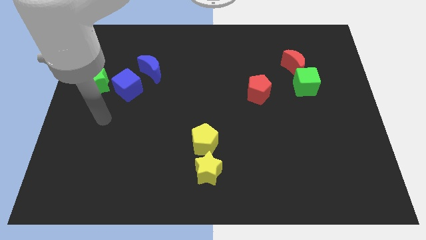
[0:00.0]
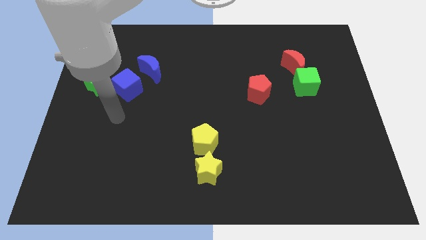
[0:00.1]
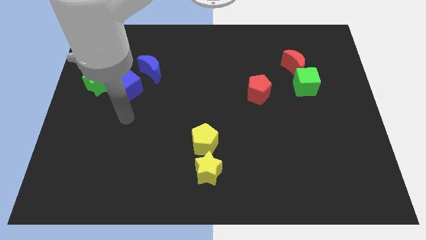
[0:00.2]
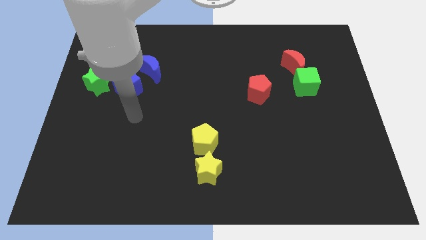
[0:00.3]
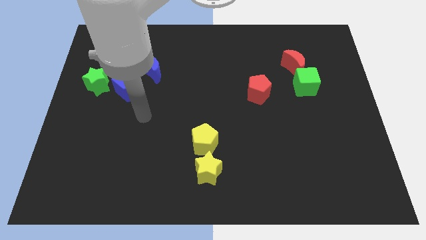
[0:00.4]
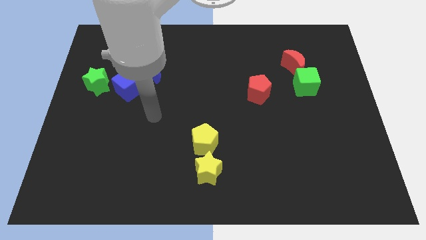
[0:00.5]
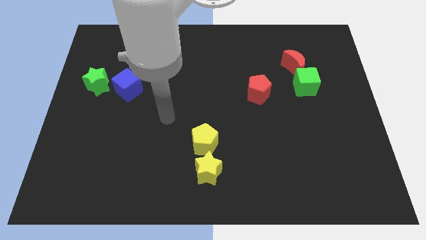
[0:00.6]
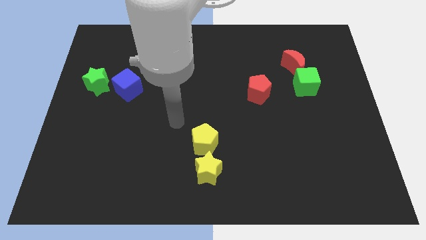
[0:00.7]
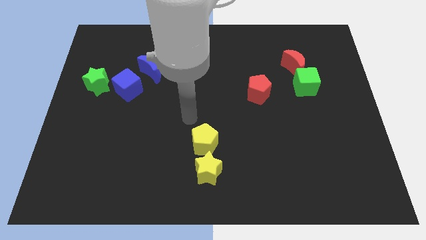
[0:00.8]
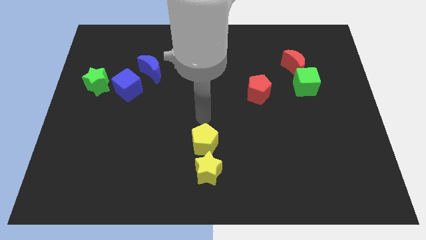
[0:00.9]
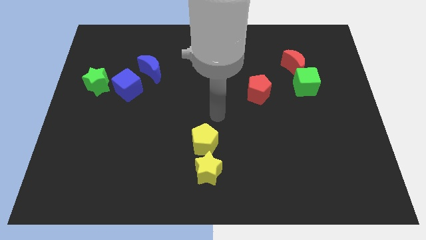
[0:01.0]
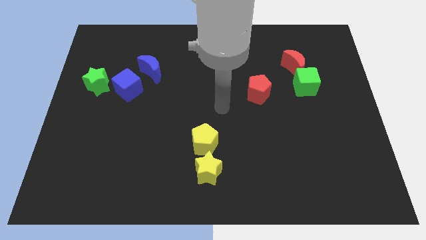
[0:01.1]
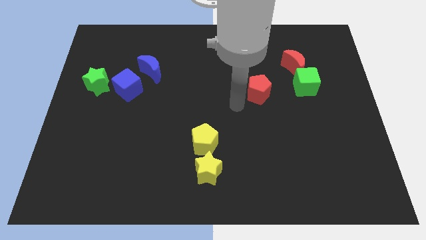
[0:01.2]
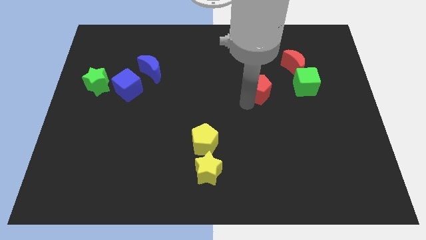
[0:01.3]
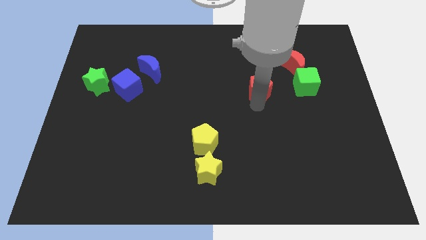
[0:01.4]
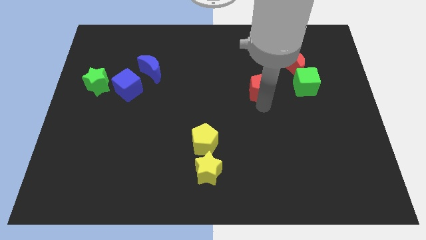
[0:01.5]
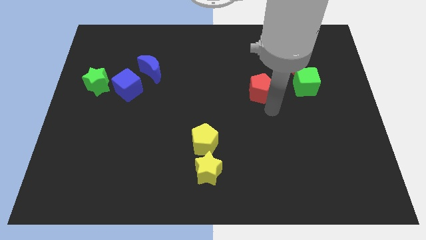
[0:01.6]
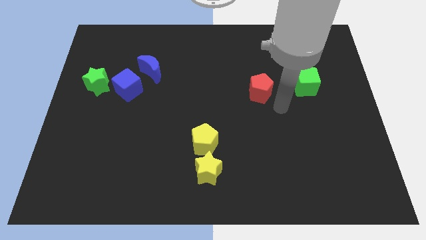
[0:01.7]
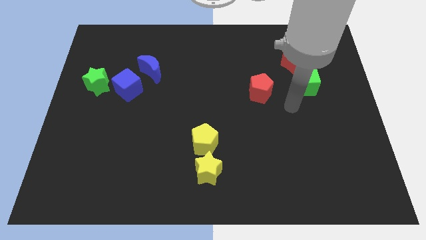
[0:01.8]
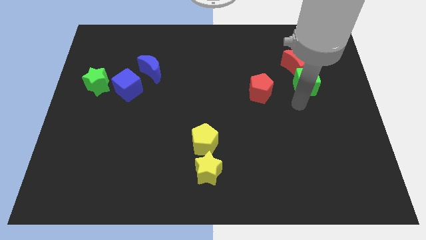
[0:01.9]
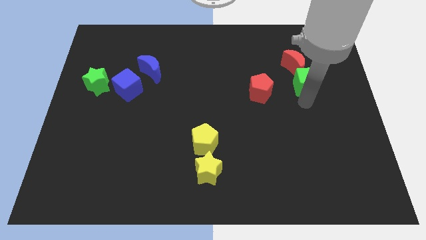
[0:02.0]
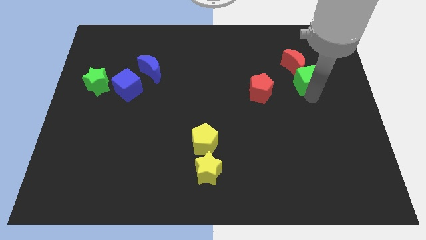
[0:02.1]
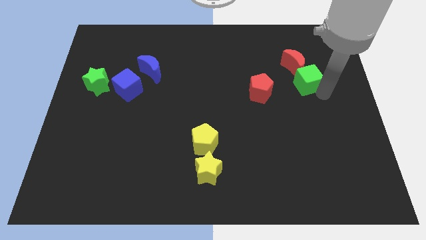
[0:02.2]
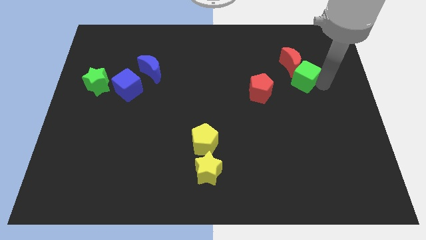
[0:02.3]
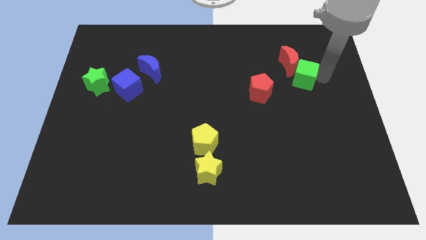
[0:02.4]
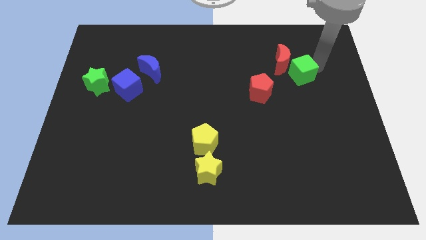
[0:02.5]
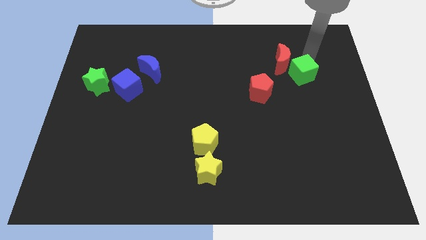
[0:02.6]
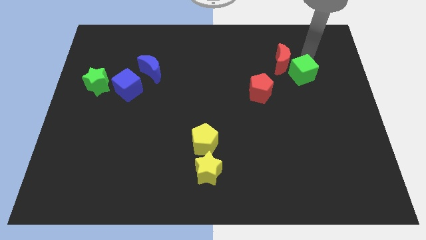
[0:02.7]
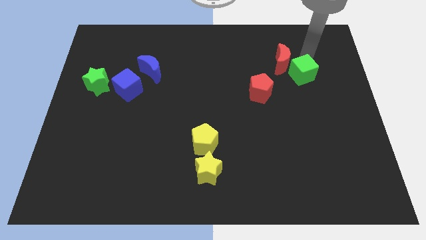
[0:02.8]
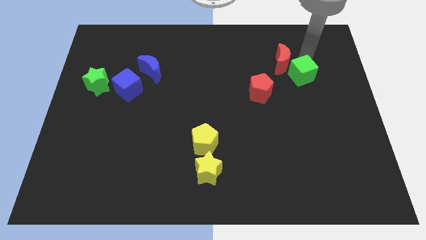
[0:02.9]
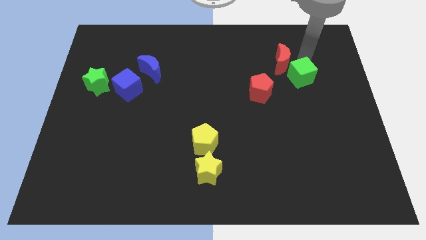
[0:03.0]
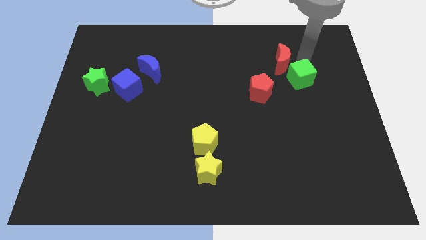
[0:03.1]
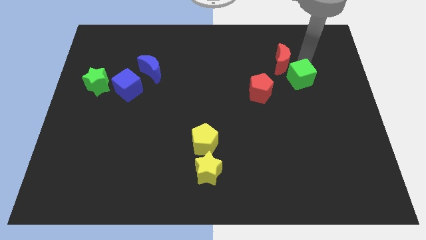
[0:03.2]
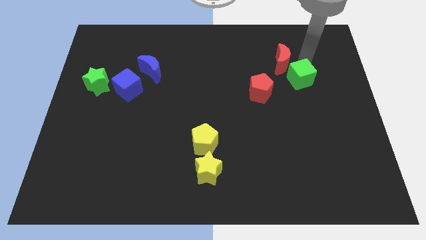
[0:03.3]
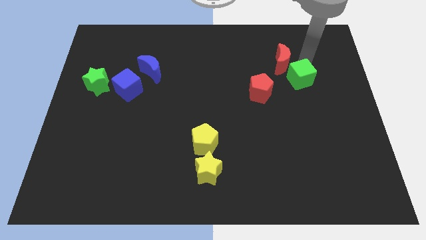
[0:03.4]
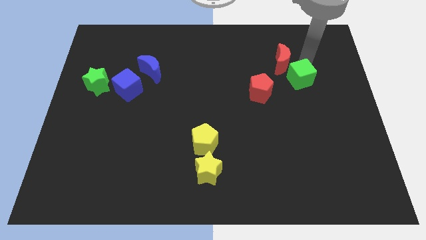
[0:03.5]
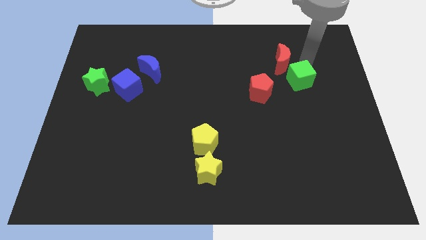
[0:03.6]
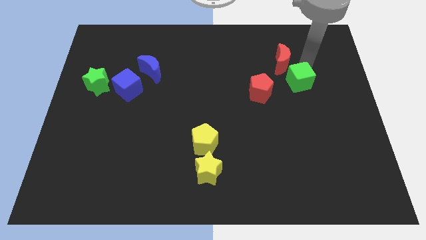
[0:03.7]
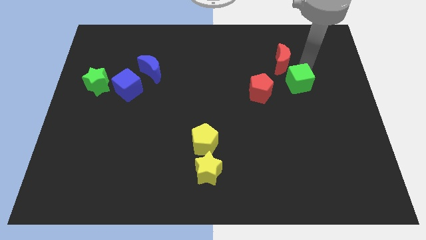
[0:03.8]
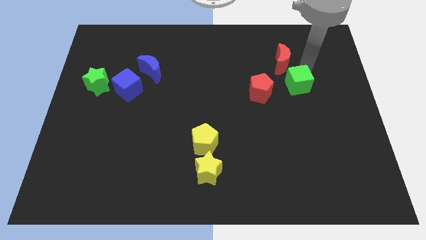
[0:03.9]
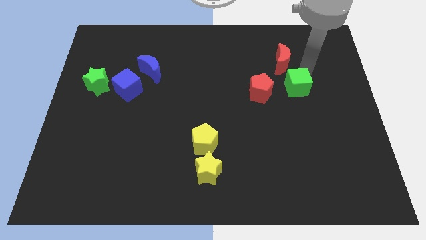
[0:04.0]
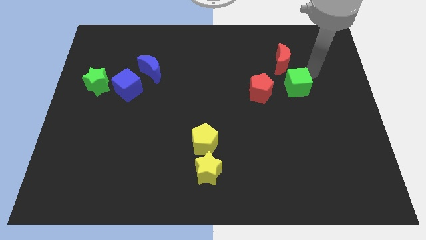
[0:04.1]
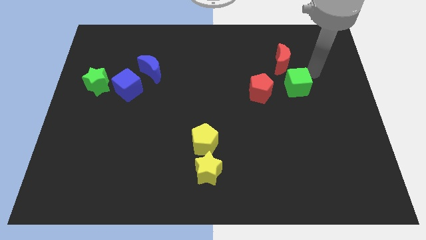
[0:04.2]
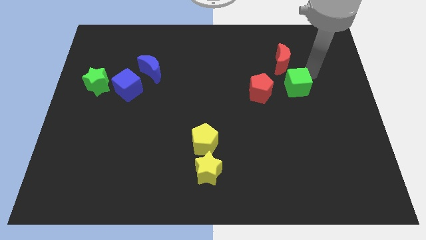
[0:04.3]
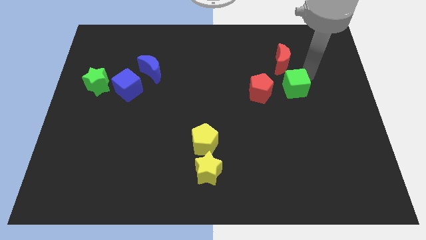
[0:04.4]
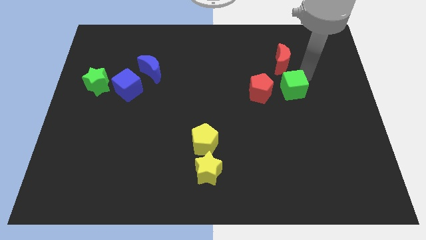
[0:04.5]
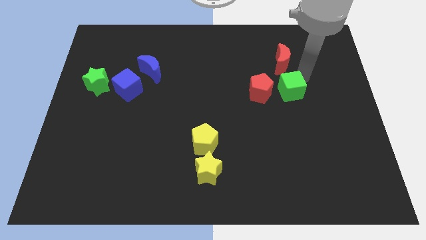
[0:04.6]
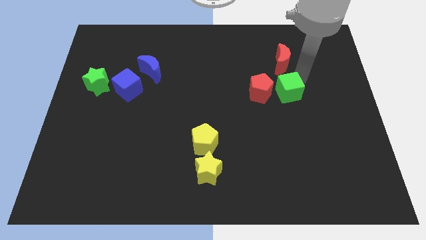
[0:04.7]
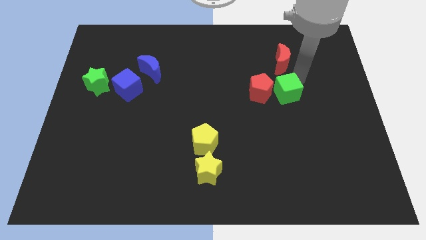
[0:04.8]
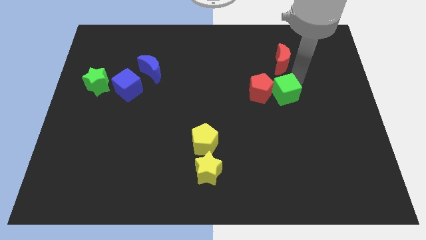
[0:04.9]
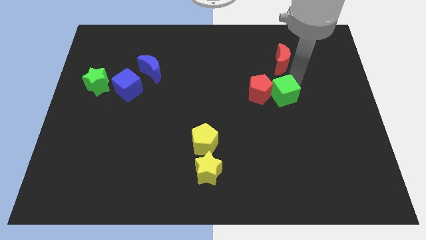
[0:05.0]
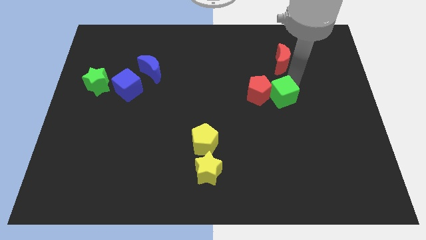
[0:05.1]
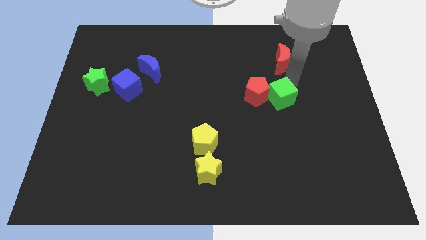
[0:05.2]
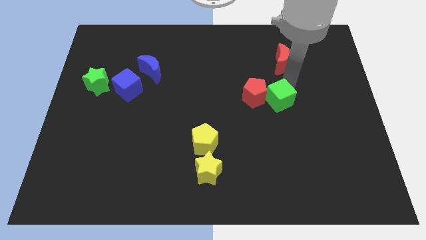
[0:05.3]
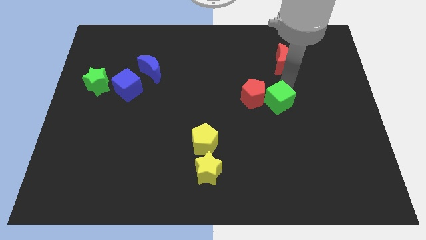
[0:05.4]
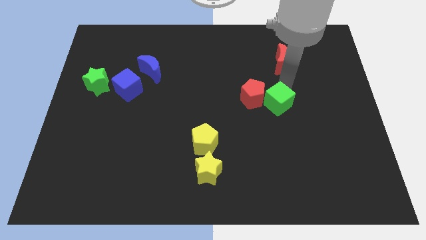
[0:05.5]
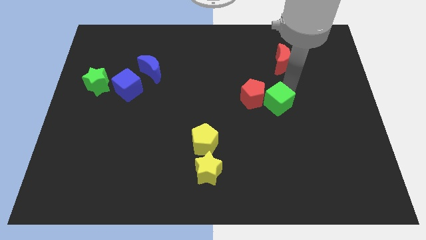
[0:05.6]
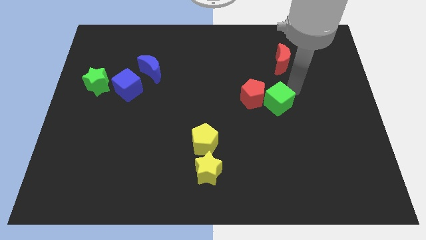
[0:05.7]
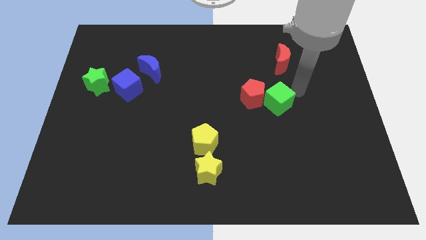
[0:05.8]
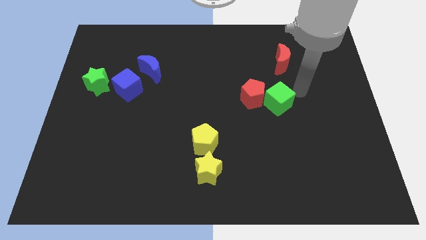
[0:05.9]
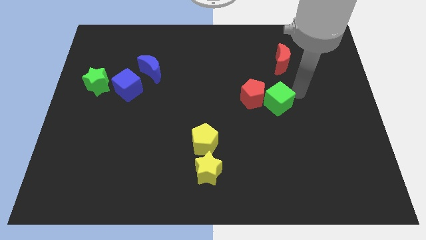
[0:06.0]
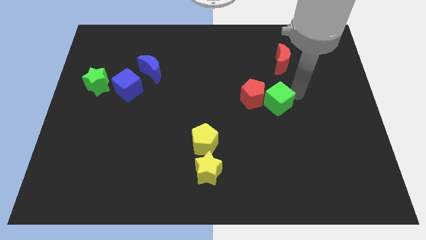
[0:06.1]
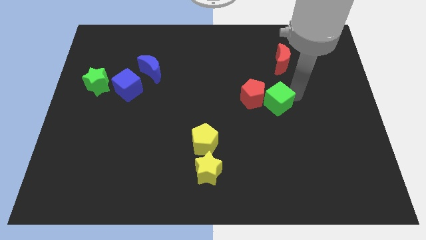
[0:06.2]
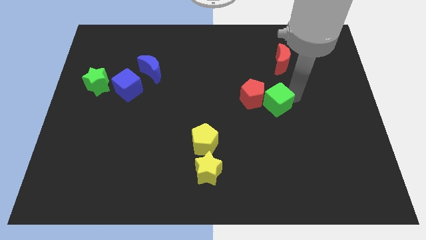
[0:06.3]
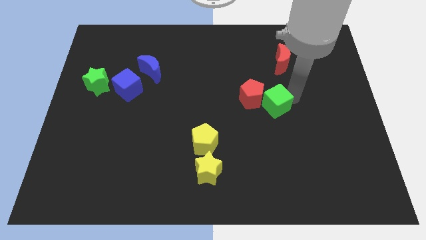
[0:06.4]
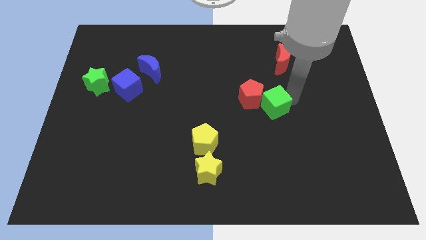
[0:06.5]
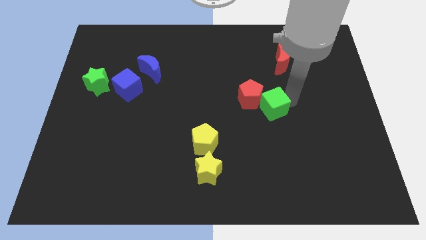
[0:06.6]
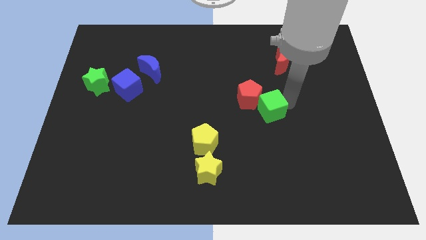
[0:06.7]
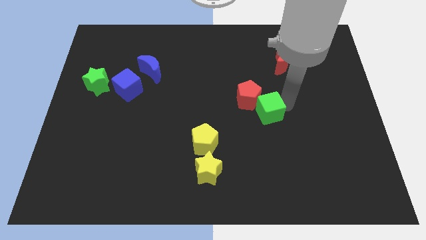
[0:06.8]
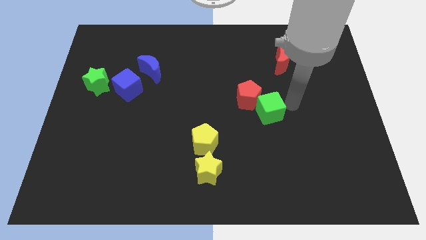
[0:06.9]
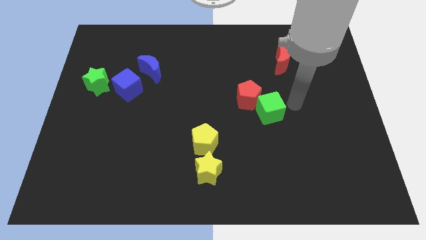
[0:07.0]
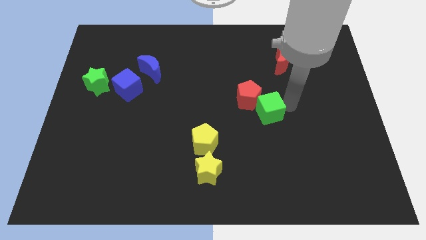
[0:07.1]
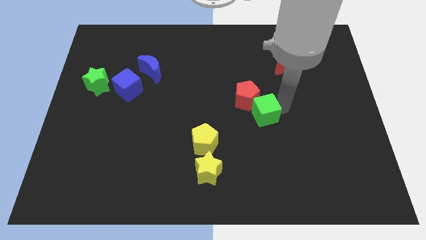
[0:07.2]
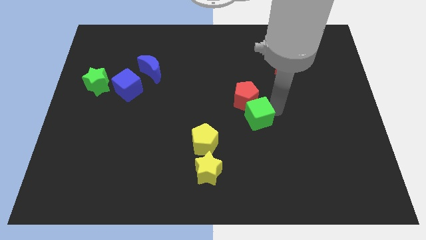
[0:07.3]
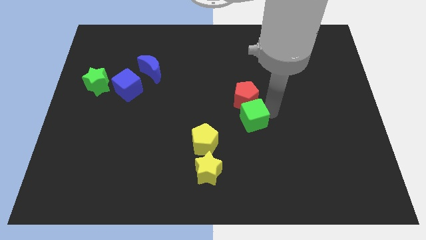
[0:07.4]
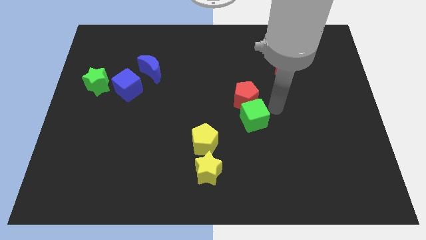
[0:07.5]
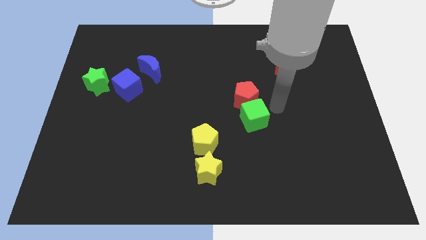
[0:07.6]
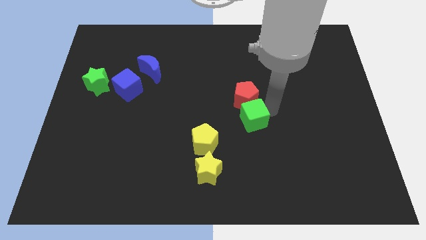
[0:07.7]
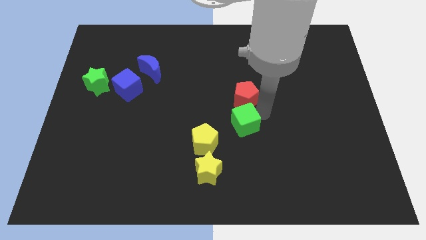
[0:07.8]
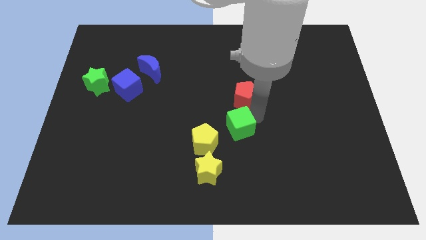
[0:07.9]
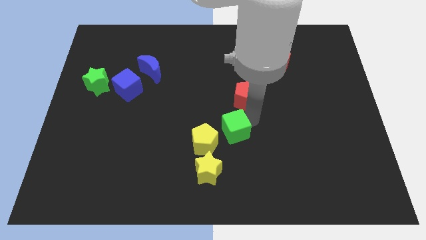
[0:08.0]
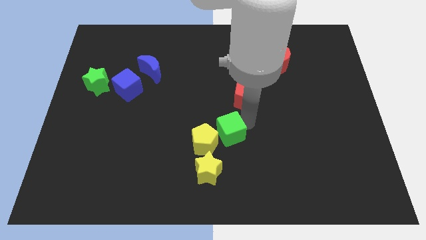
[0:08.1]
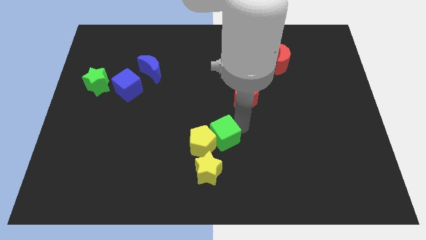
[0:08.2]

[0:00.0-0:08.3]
put the green cube next to the yellow pentagon
